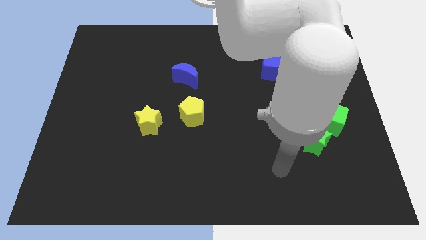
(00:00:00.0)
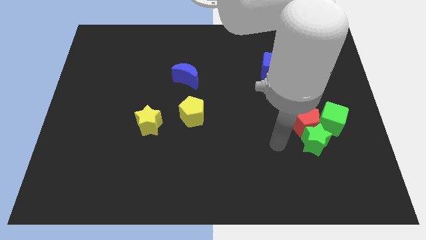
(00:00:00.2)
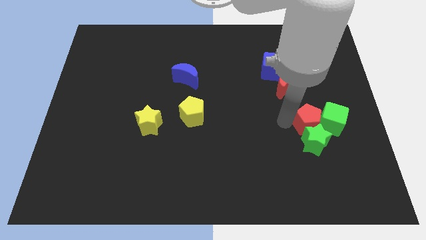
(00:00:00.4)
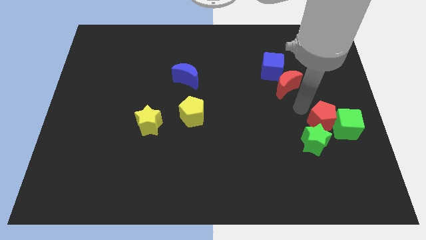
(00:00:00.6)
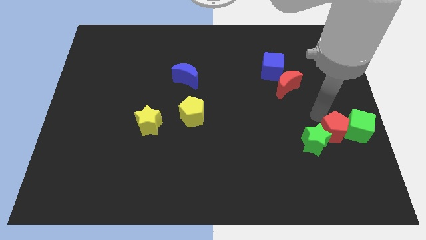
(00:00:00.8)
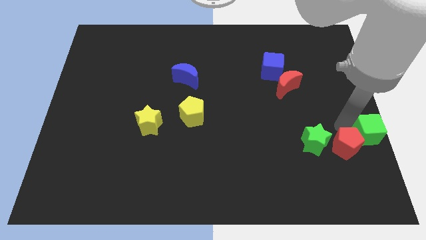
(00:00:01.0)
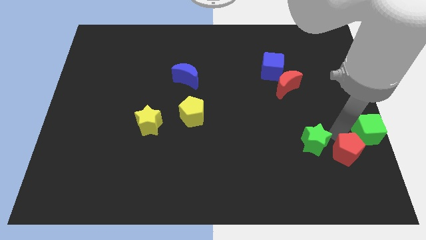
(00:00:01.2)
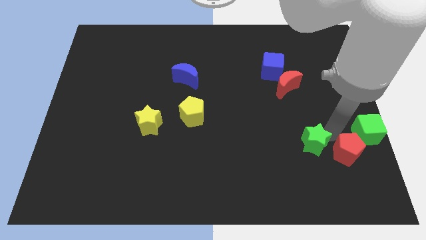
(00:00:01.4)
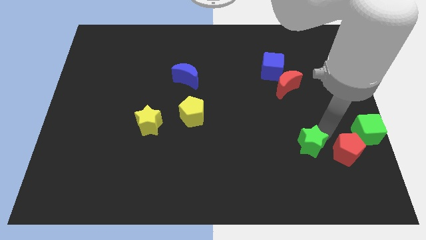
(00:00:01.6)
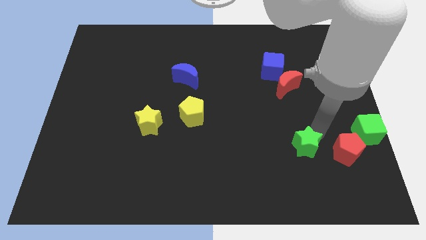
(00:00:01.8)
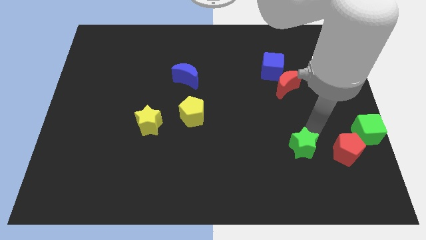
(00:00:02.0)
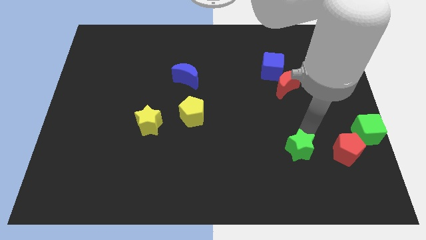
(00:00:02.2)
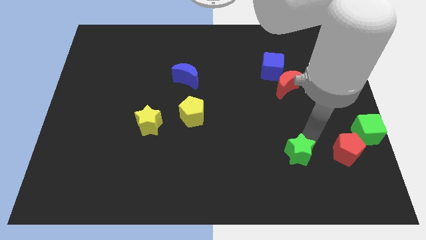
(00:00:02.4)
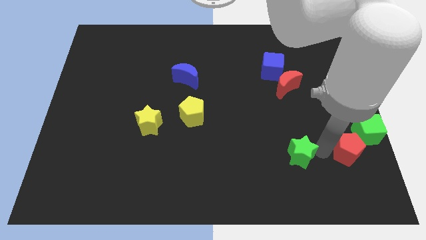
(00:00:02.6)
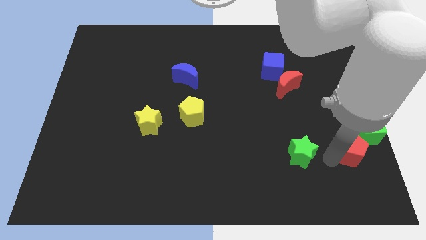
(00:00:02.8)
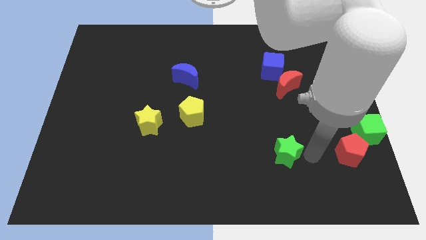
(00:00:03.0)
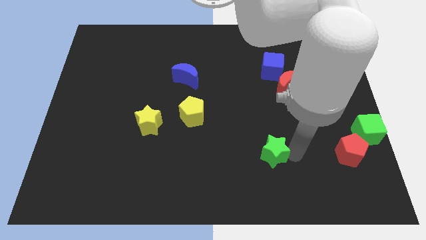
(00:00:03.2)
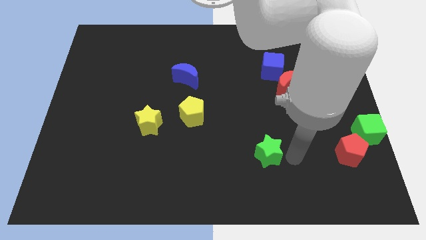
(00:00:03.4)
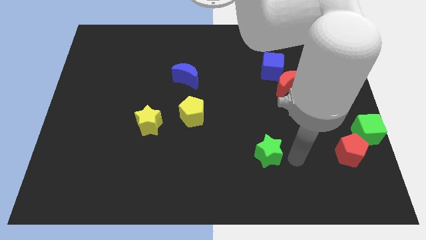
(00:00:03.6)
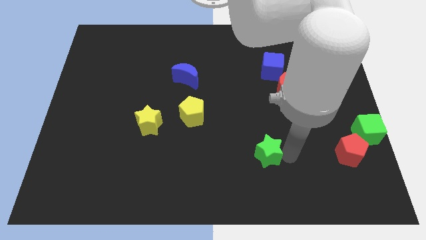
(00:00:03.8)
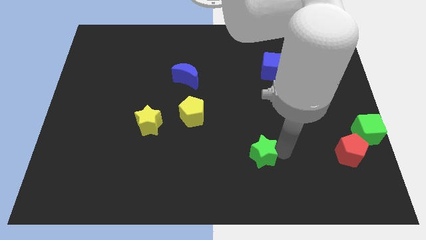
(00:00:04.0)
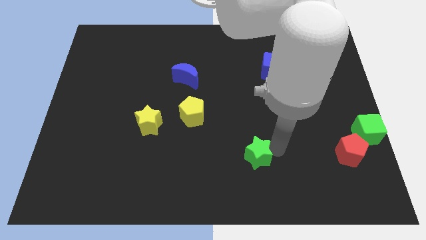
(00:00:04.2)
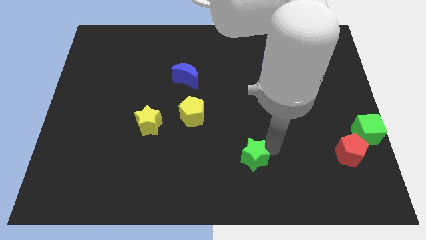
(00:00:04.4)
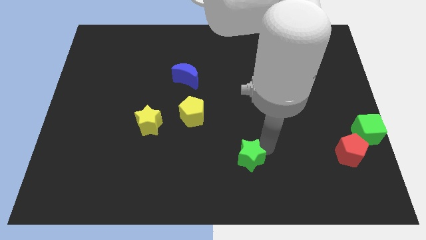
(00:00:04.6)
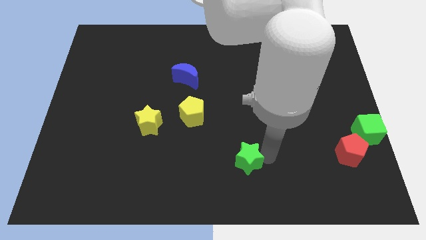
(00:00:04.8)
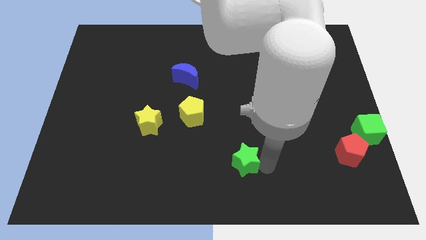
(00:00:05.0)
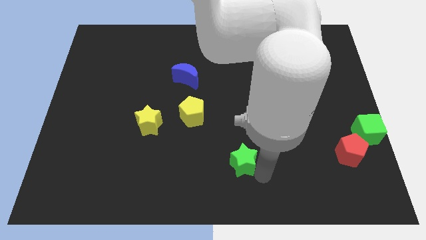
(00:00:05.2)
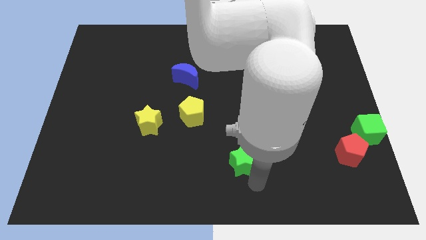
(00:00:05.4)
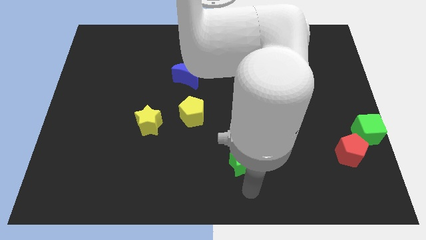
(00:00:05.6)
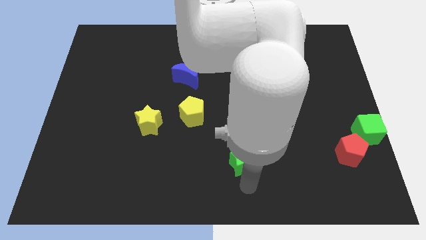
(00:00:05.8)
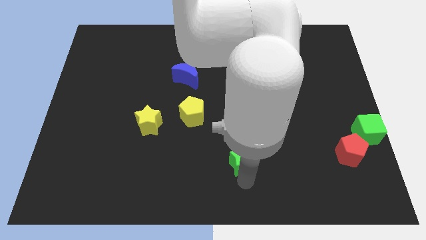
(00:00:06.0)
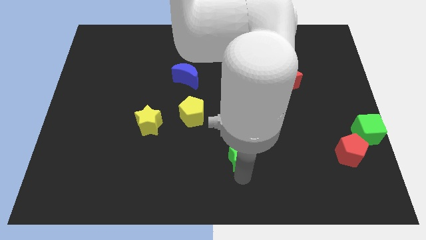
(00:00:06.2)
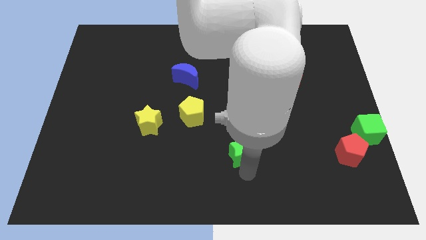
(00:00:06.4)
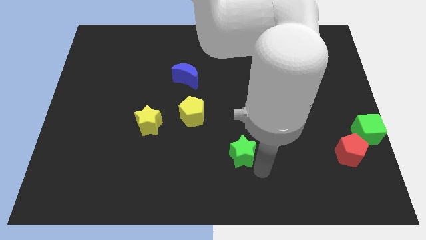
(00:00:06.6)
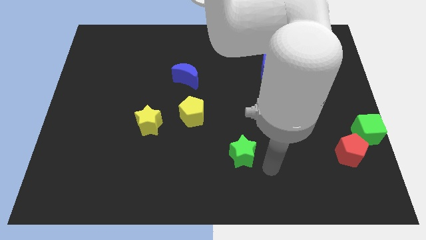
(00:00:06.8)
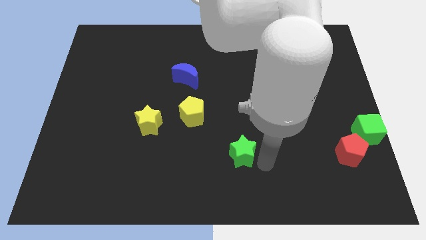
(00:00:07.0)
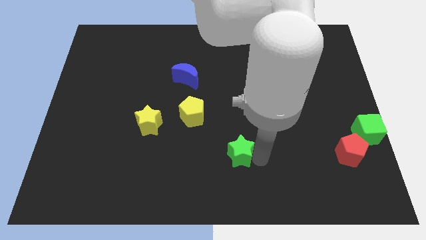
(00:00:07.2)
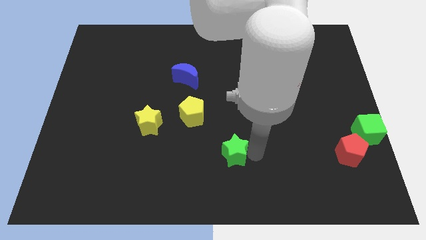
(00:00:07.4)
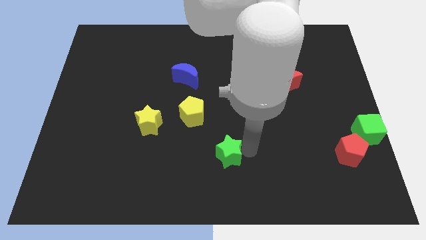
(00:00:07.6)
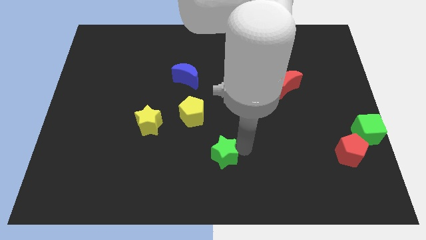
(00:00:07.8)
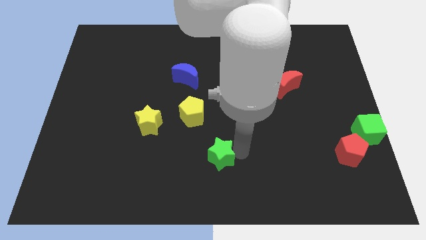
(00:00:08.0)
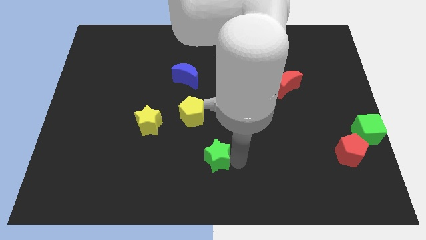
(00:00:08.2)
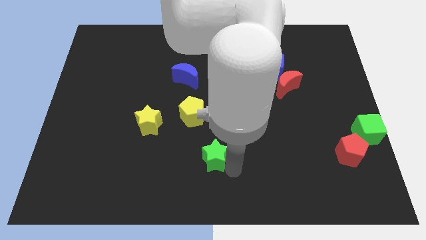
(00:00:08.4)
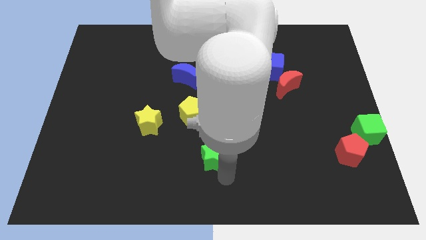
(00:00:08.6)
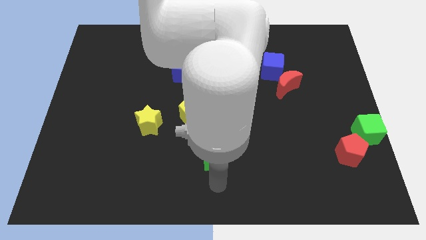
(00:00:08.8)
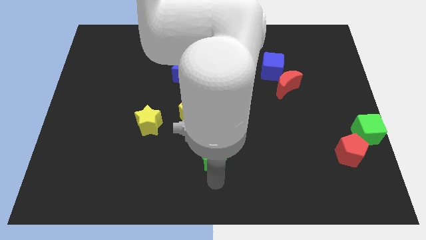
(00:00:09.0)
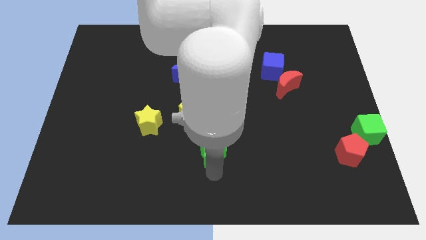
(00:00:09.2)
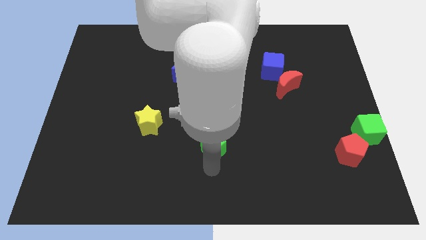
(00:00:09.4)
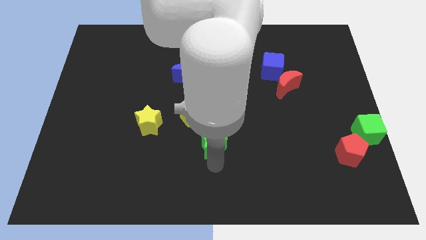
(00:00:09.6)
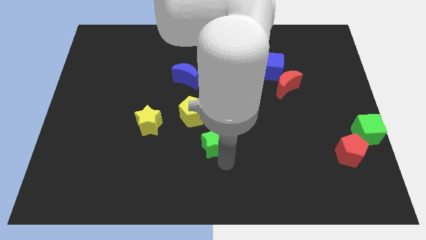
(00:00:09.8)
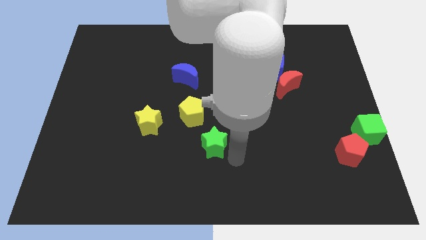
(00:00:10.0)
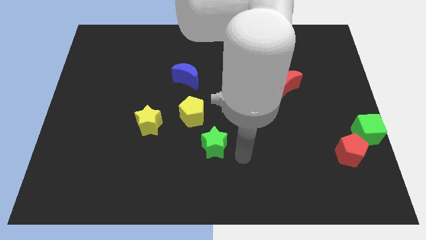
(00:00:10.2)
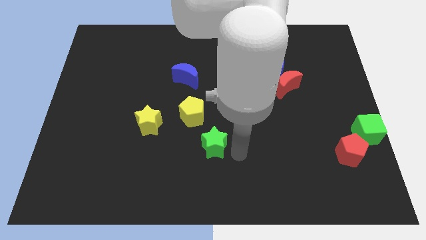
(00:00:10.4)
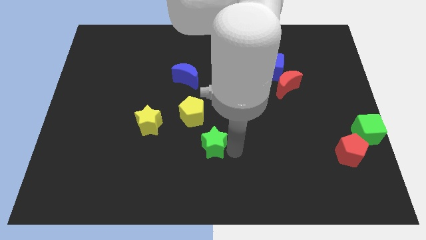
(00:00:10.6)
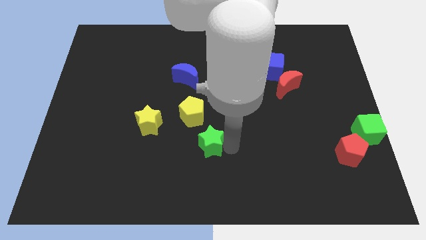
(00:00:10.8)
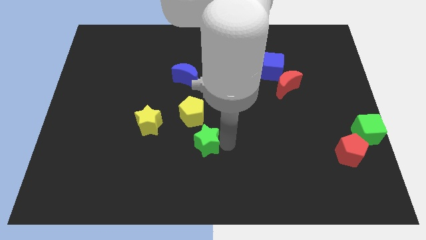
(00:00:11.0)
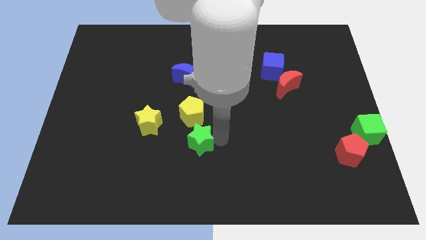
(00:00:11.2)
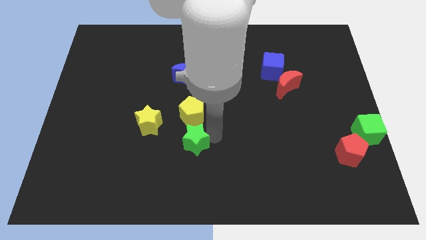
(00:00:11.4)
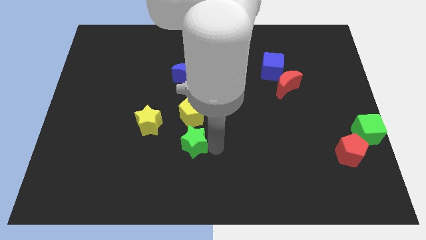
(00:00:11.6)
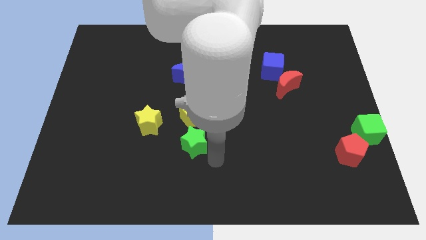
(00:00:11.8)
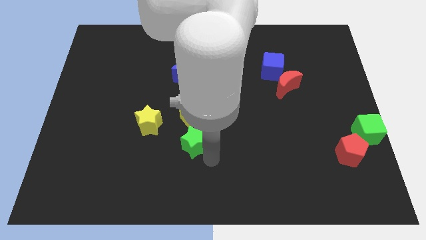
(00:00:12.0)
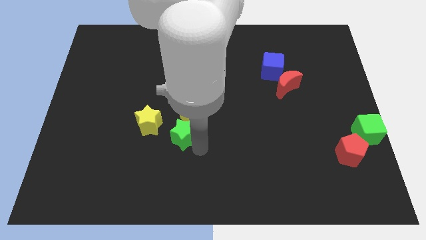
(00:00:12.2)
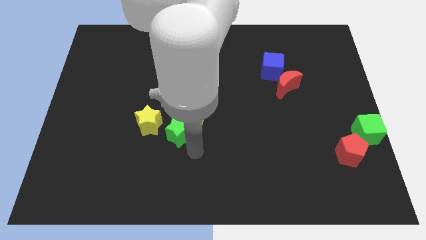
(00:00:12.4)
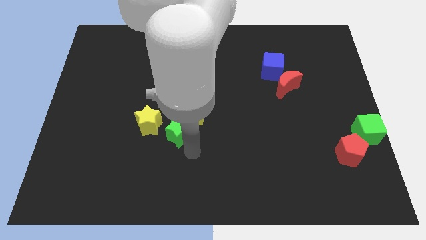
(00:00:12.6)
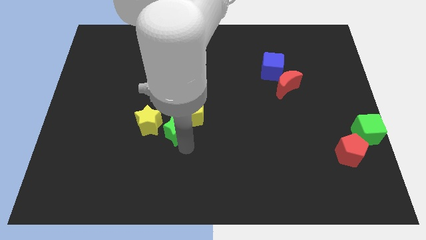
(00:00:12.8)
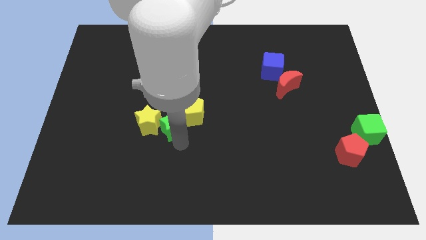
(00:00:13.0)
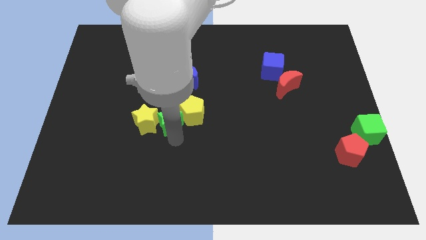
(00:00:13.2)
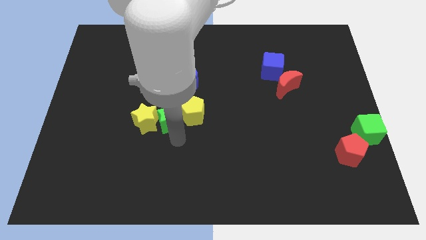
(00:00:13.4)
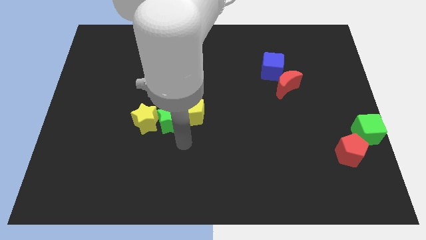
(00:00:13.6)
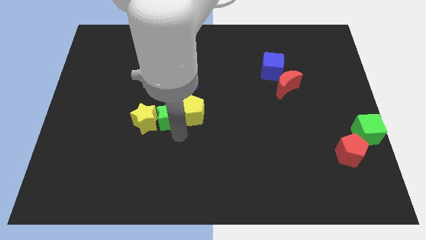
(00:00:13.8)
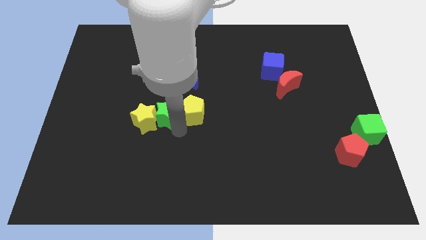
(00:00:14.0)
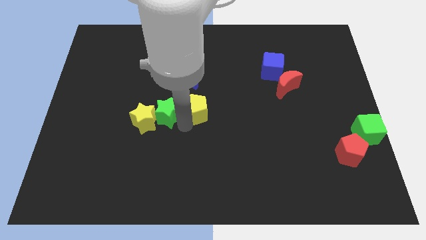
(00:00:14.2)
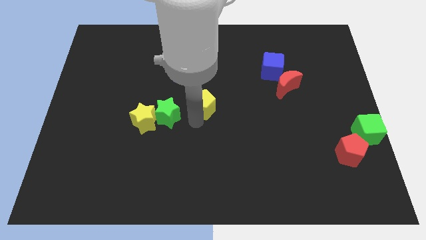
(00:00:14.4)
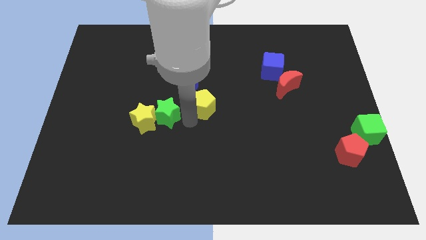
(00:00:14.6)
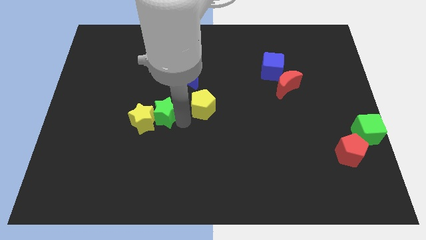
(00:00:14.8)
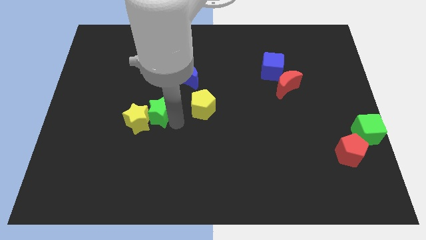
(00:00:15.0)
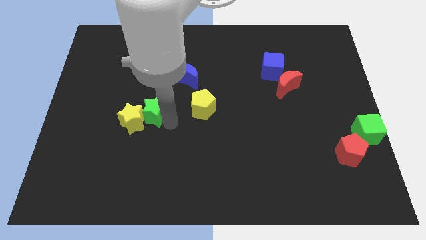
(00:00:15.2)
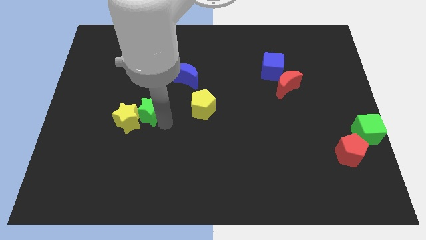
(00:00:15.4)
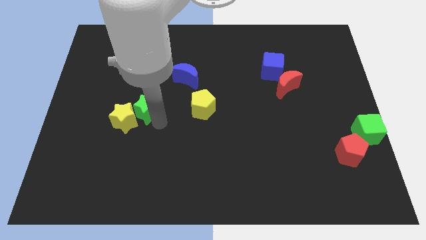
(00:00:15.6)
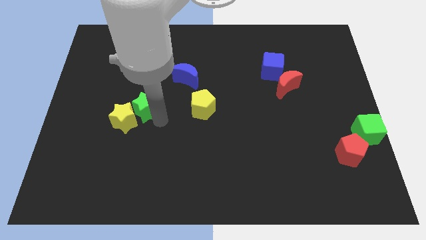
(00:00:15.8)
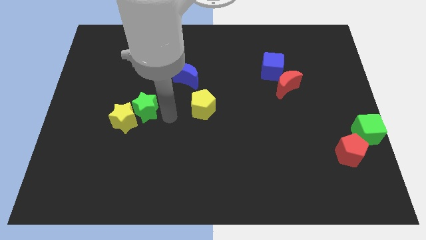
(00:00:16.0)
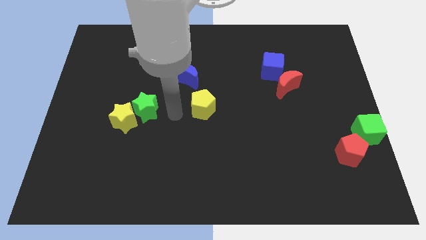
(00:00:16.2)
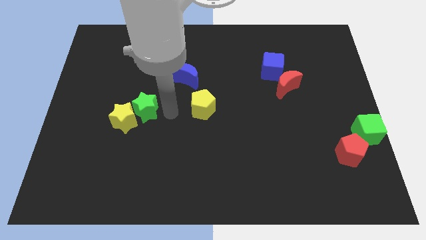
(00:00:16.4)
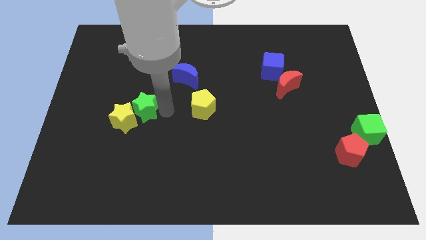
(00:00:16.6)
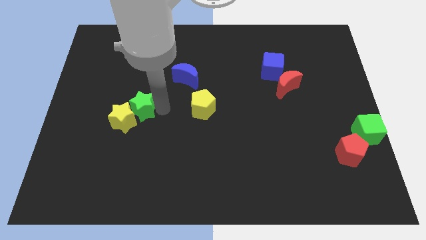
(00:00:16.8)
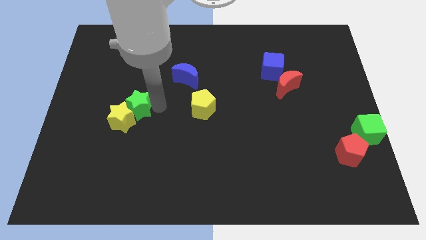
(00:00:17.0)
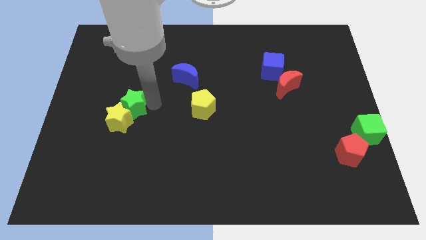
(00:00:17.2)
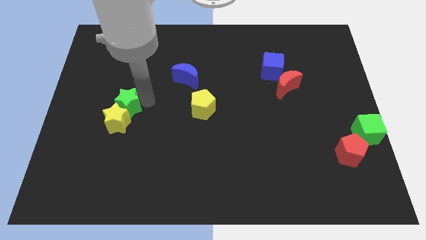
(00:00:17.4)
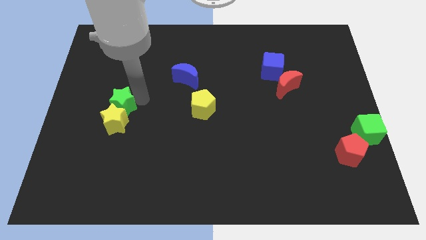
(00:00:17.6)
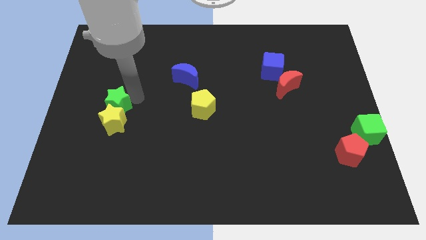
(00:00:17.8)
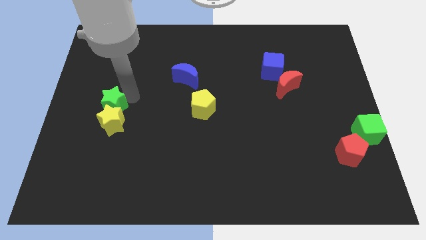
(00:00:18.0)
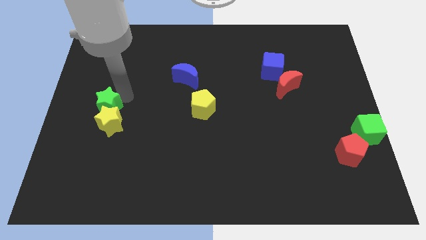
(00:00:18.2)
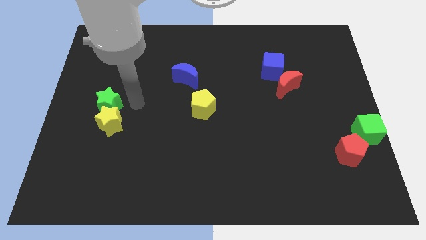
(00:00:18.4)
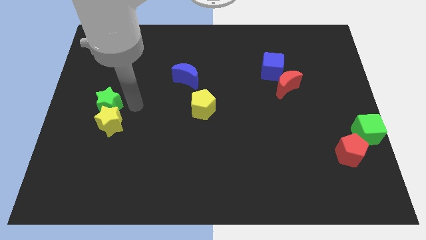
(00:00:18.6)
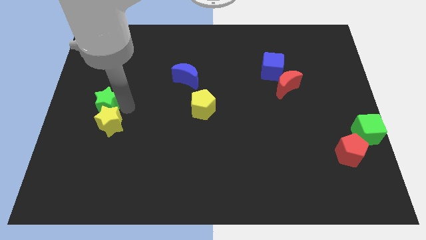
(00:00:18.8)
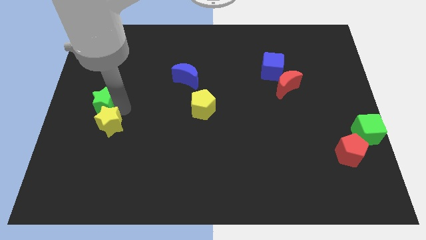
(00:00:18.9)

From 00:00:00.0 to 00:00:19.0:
push the green star to the left side
